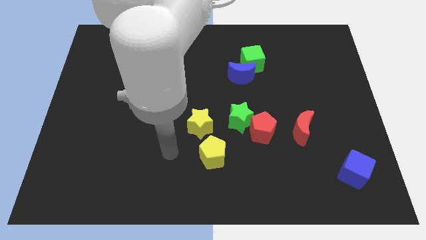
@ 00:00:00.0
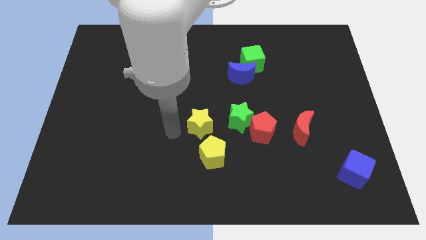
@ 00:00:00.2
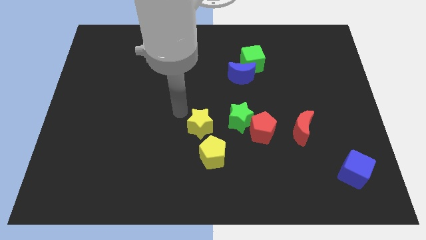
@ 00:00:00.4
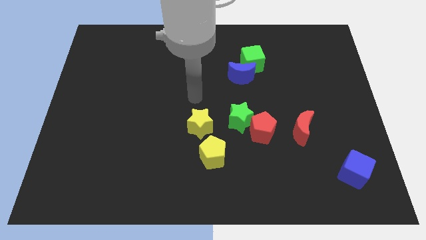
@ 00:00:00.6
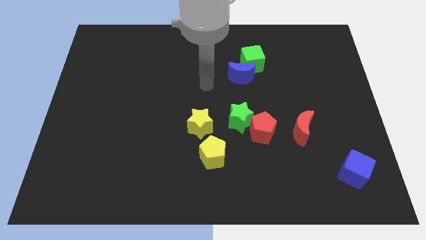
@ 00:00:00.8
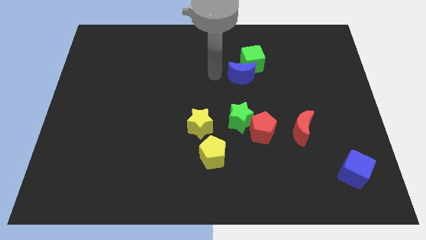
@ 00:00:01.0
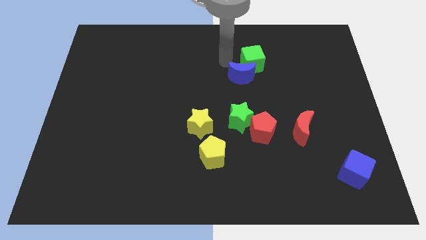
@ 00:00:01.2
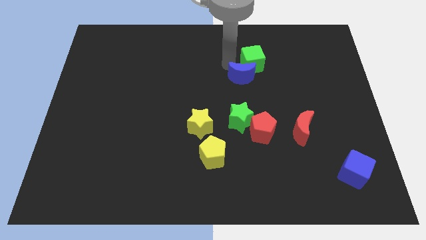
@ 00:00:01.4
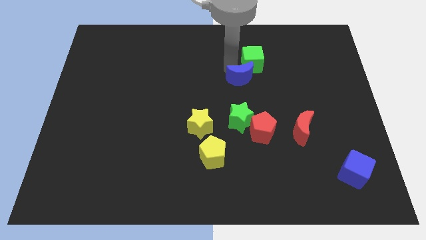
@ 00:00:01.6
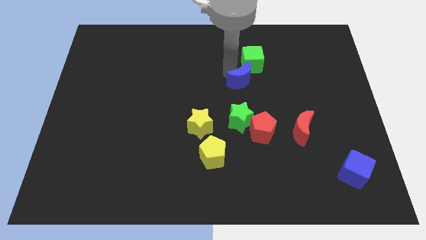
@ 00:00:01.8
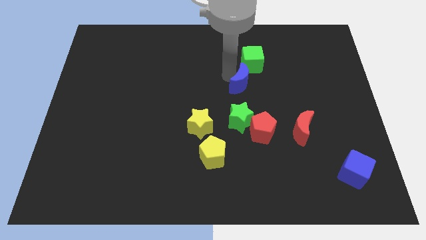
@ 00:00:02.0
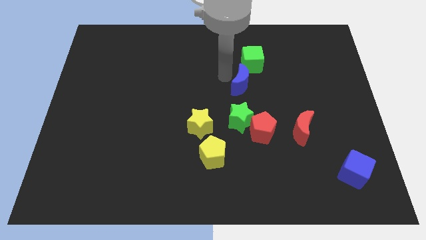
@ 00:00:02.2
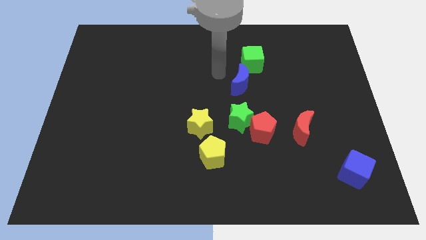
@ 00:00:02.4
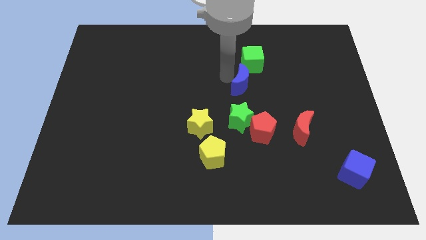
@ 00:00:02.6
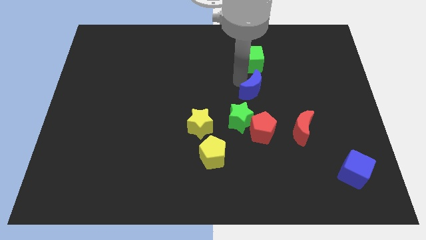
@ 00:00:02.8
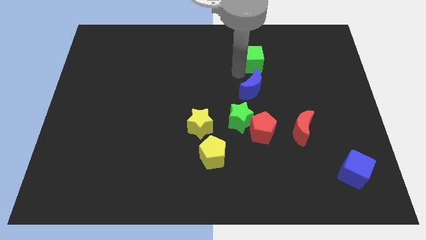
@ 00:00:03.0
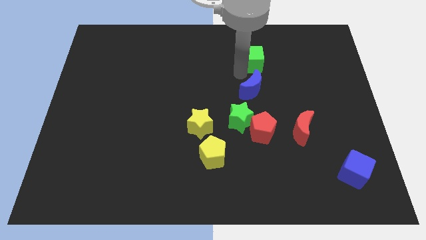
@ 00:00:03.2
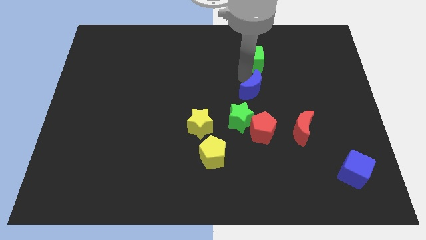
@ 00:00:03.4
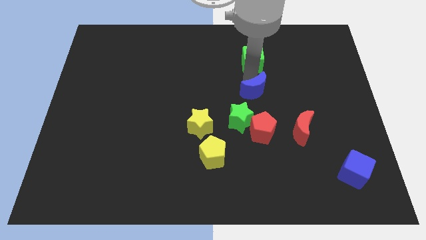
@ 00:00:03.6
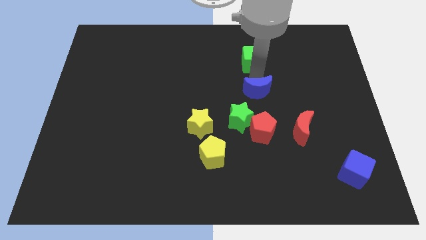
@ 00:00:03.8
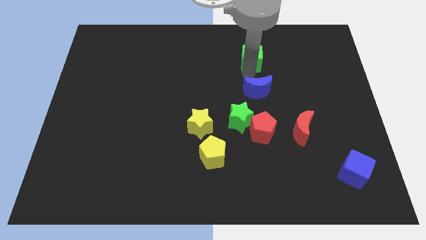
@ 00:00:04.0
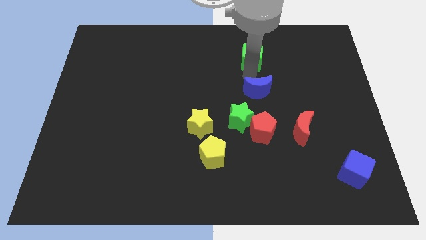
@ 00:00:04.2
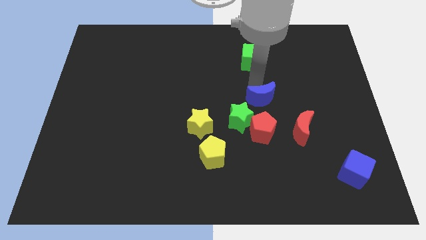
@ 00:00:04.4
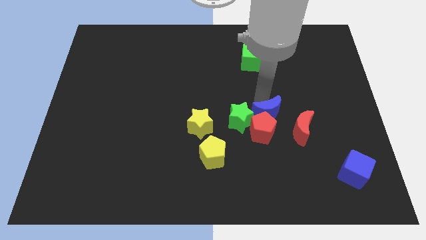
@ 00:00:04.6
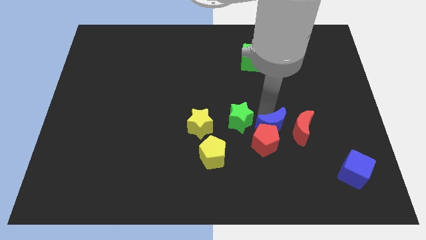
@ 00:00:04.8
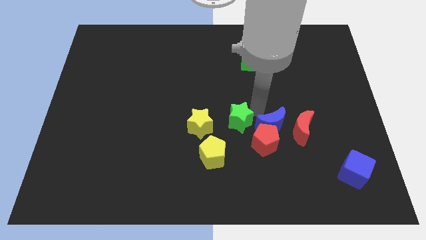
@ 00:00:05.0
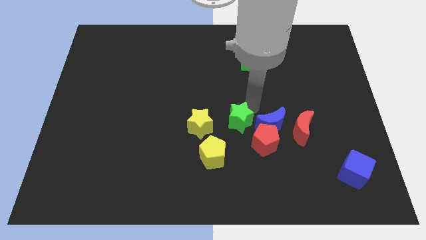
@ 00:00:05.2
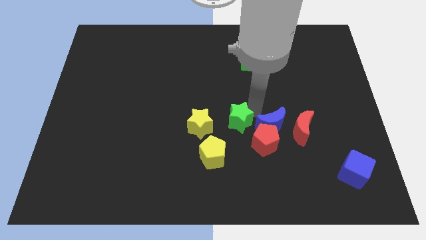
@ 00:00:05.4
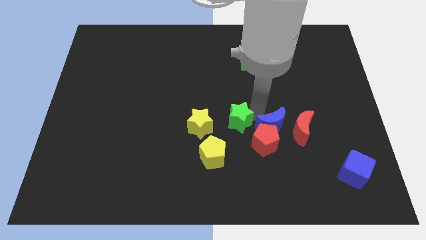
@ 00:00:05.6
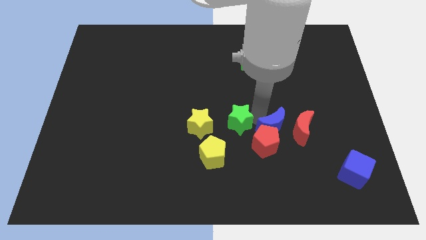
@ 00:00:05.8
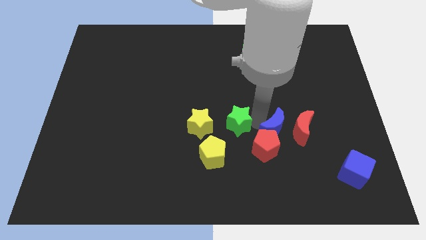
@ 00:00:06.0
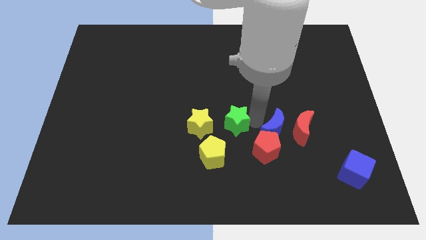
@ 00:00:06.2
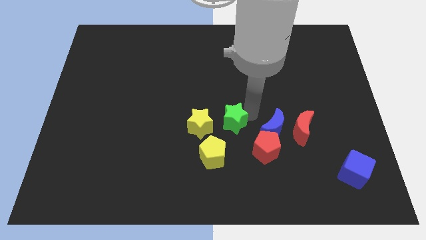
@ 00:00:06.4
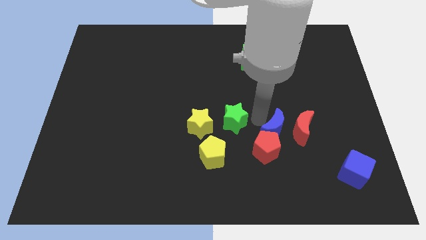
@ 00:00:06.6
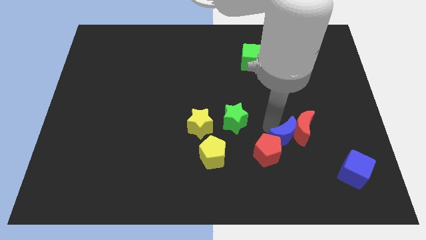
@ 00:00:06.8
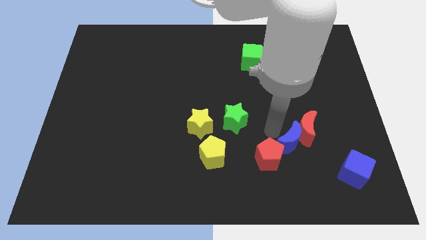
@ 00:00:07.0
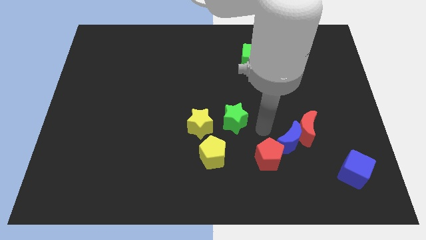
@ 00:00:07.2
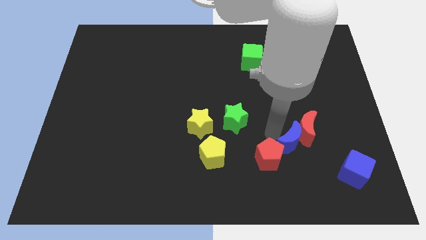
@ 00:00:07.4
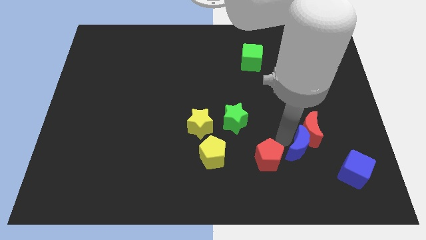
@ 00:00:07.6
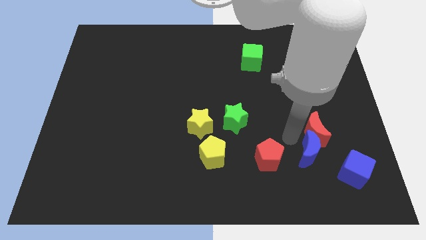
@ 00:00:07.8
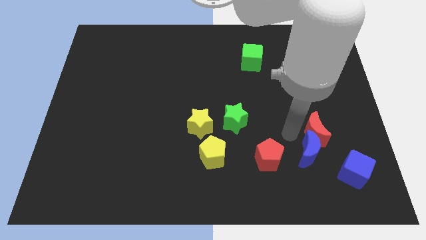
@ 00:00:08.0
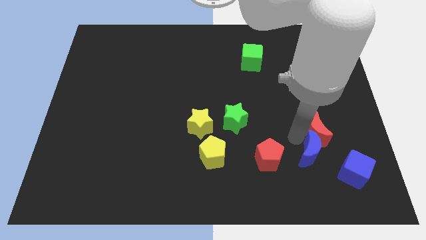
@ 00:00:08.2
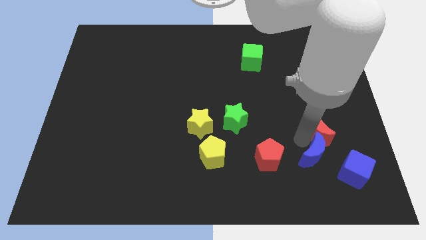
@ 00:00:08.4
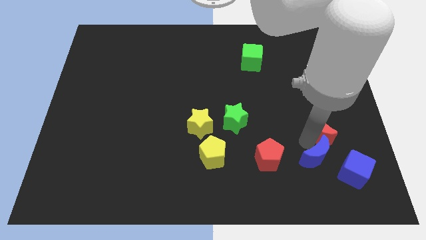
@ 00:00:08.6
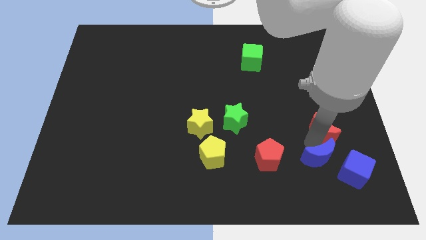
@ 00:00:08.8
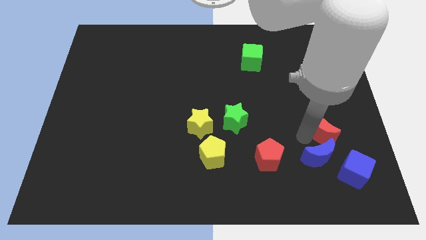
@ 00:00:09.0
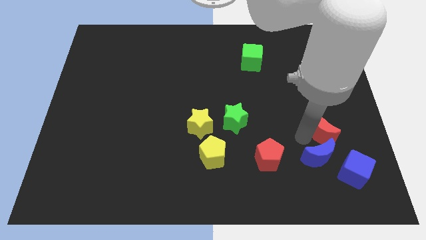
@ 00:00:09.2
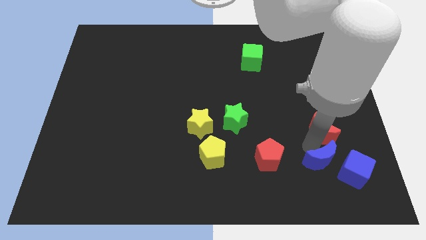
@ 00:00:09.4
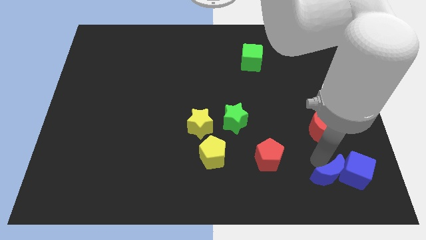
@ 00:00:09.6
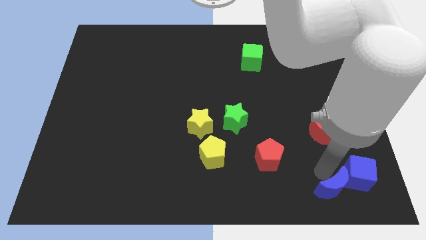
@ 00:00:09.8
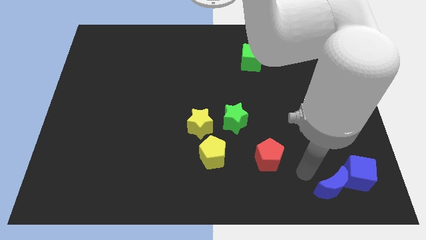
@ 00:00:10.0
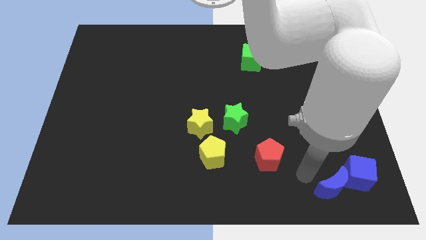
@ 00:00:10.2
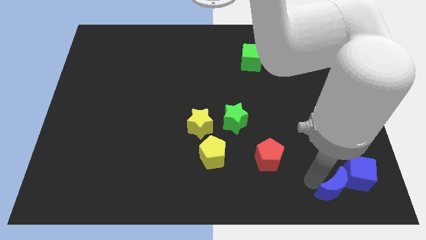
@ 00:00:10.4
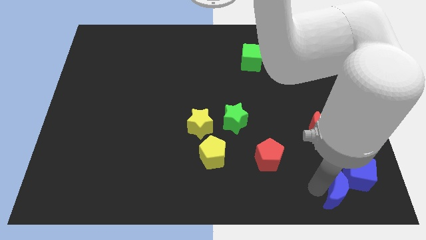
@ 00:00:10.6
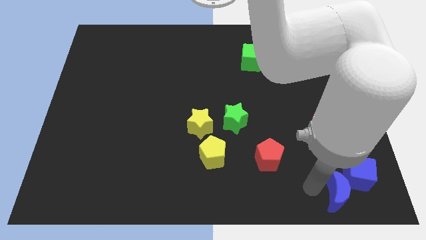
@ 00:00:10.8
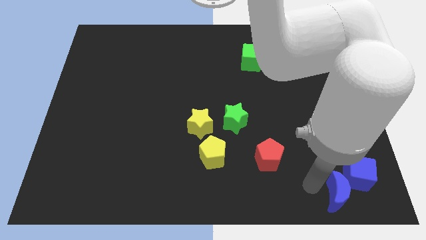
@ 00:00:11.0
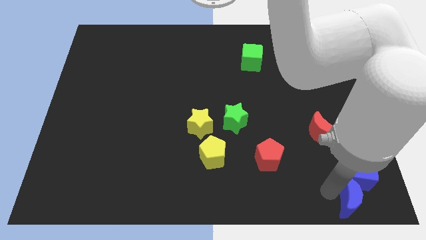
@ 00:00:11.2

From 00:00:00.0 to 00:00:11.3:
slide the blue moon to the bottom right of the board

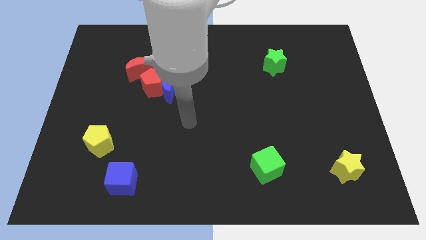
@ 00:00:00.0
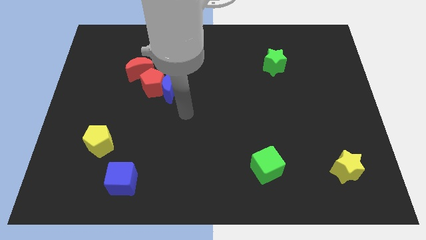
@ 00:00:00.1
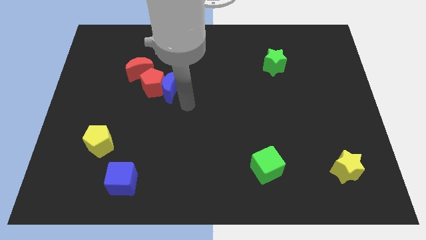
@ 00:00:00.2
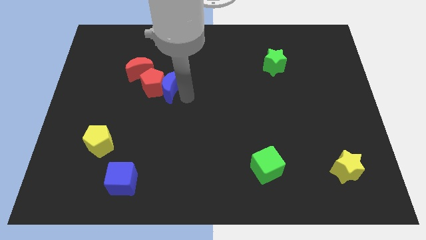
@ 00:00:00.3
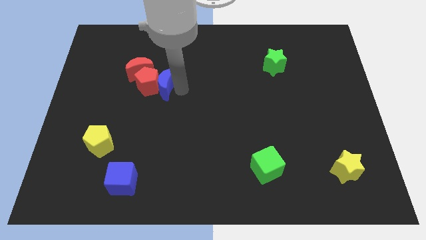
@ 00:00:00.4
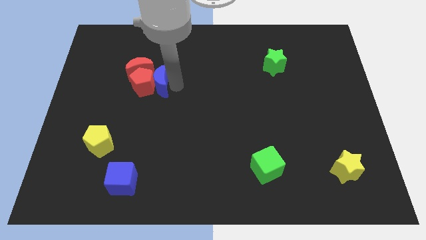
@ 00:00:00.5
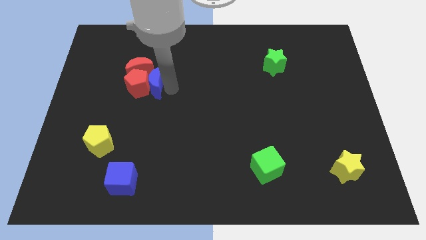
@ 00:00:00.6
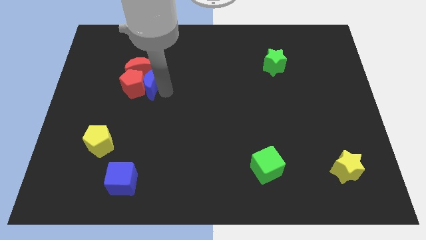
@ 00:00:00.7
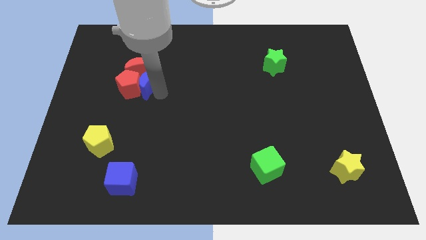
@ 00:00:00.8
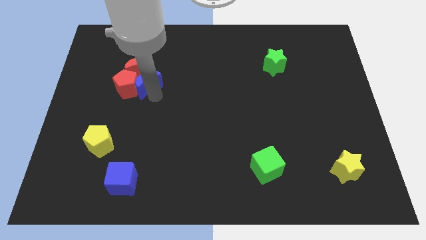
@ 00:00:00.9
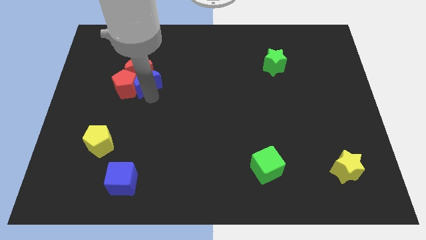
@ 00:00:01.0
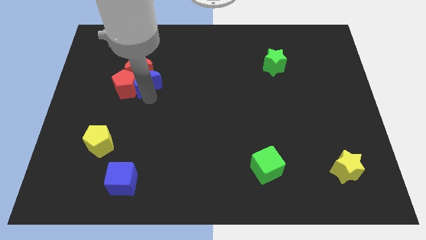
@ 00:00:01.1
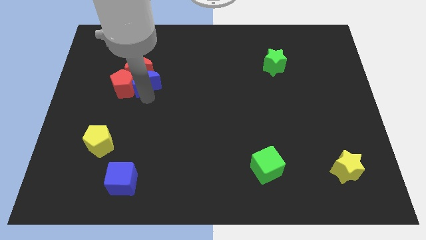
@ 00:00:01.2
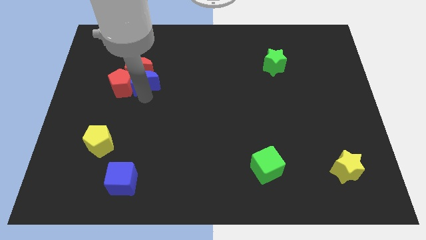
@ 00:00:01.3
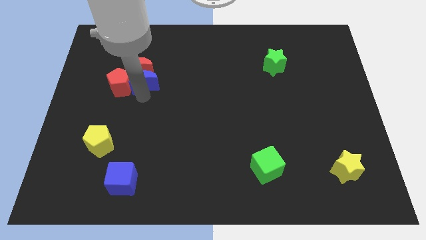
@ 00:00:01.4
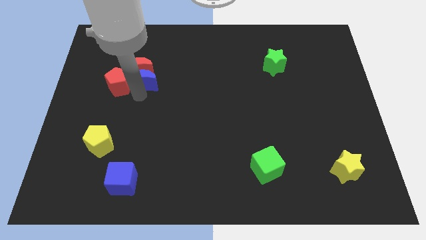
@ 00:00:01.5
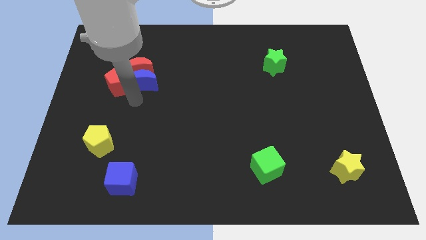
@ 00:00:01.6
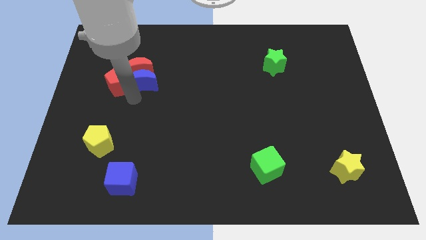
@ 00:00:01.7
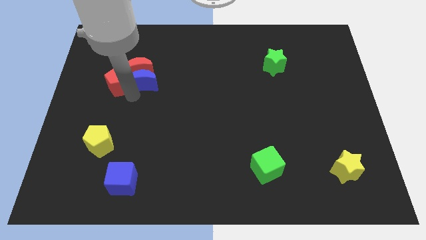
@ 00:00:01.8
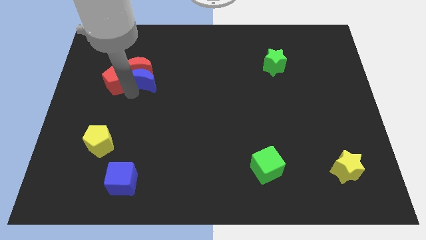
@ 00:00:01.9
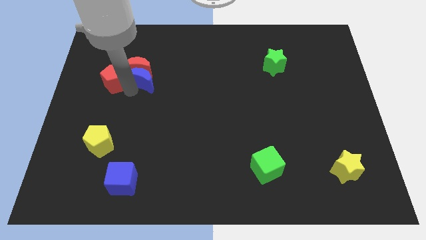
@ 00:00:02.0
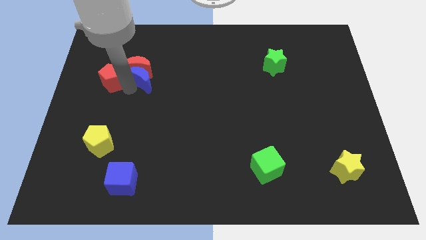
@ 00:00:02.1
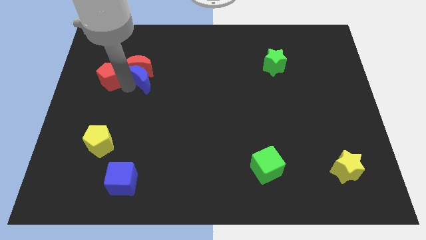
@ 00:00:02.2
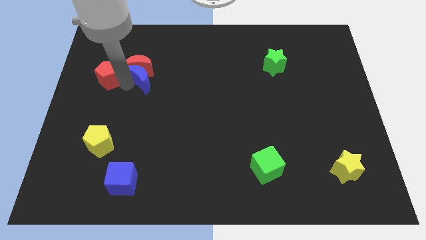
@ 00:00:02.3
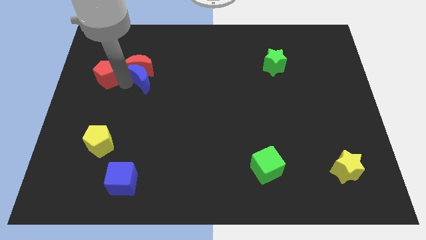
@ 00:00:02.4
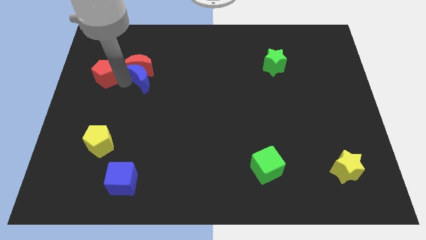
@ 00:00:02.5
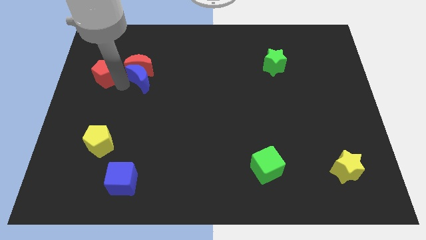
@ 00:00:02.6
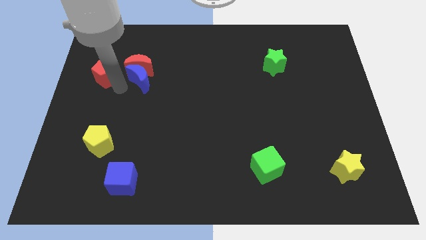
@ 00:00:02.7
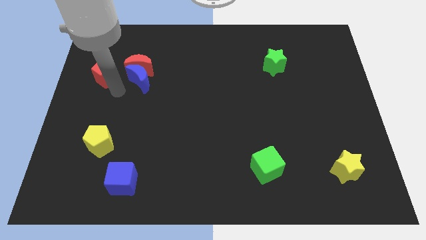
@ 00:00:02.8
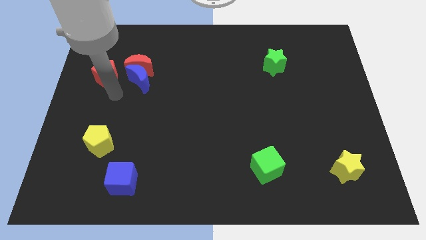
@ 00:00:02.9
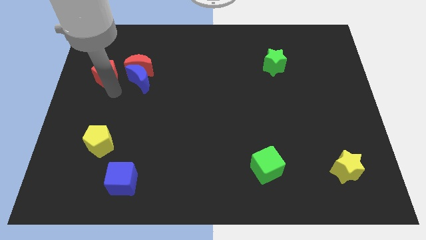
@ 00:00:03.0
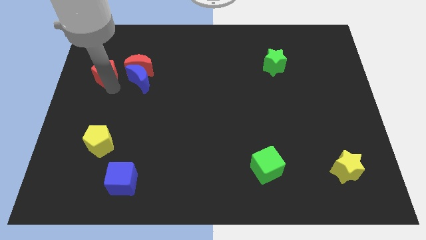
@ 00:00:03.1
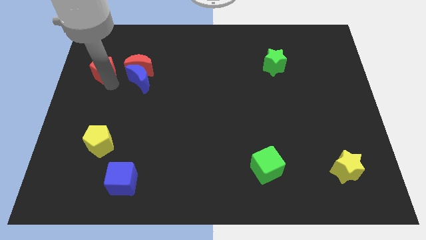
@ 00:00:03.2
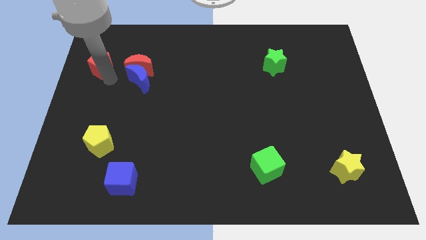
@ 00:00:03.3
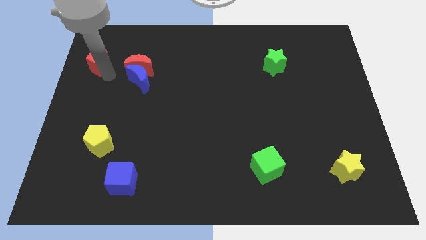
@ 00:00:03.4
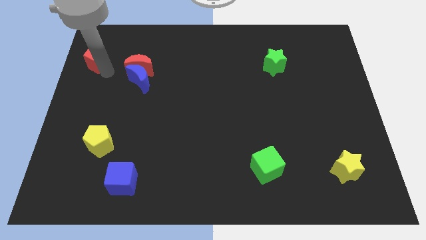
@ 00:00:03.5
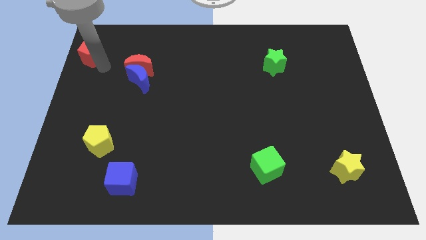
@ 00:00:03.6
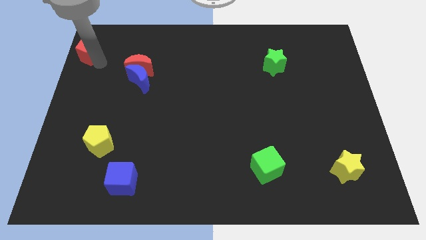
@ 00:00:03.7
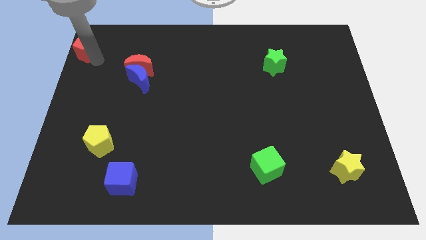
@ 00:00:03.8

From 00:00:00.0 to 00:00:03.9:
push the red pentagon to the top left of the board
